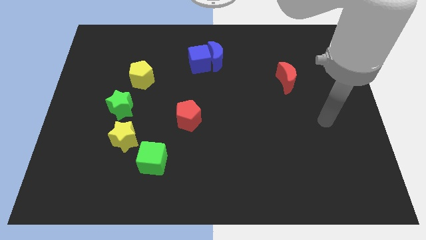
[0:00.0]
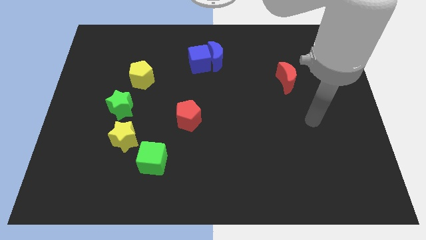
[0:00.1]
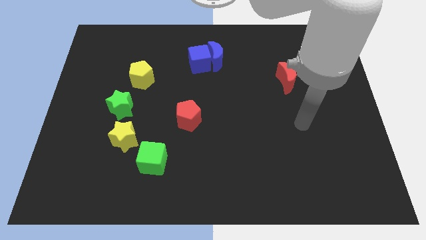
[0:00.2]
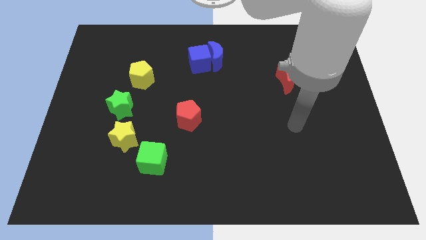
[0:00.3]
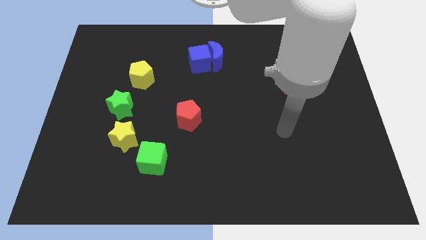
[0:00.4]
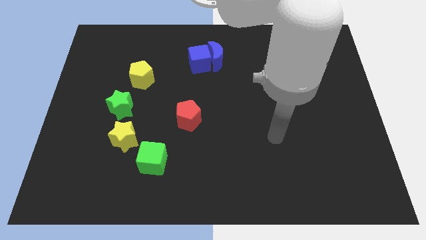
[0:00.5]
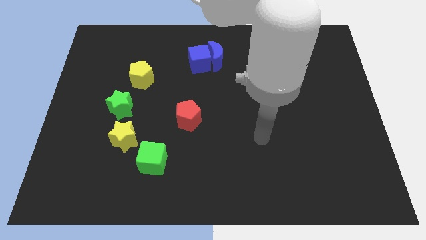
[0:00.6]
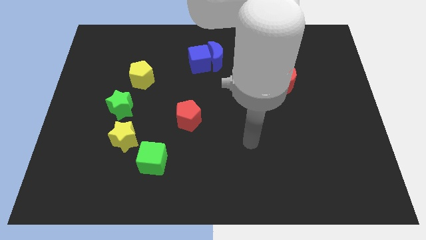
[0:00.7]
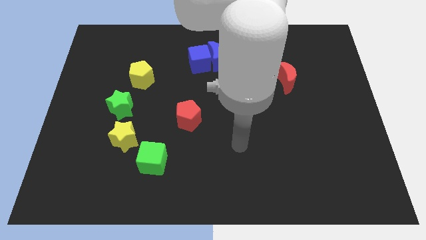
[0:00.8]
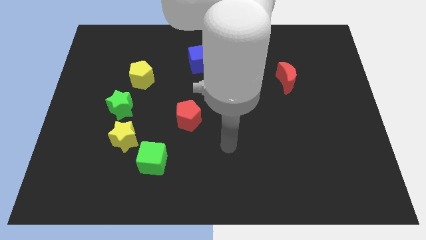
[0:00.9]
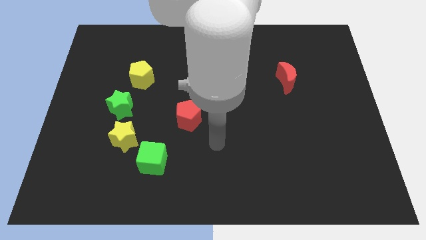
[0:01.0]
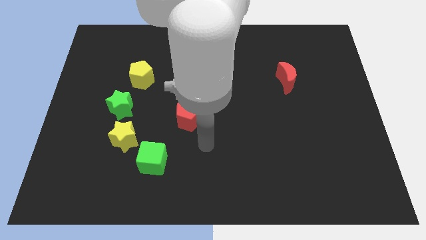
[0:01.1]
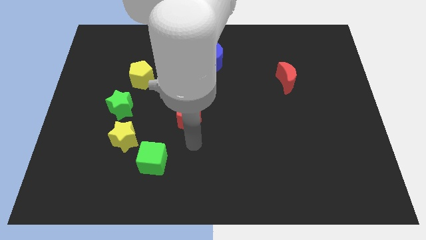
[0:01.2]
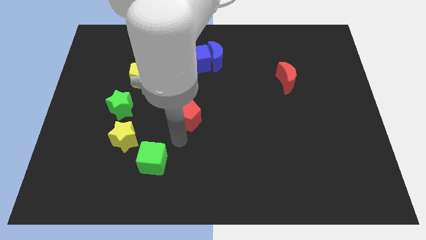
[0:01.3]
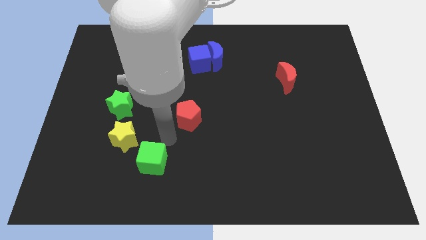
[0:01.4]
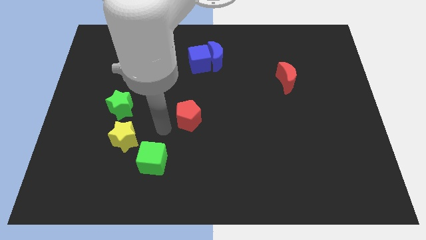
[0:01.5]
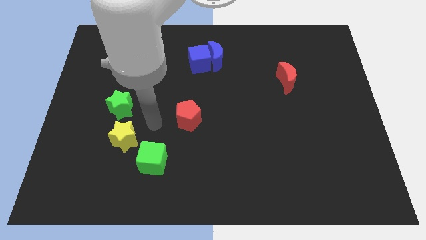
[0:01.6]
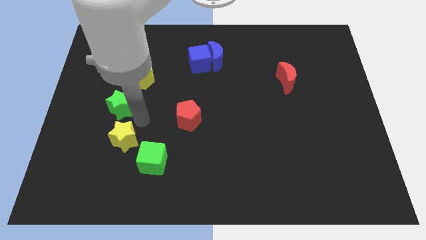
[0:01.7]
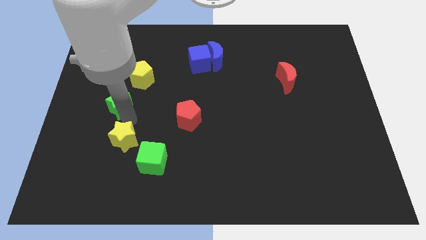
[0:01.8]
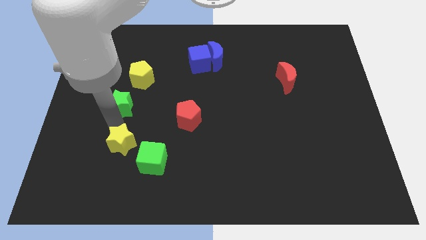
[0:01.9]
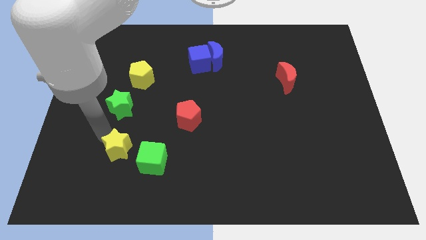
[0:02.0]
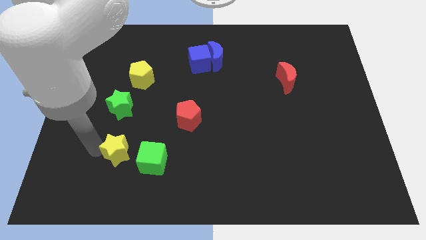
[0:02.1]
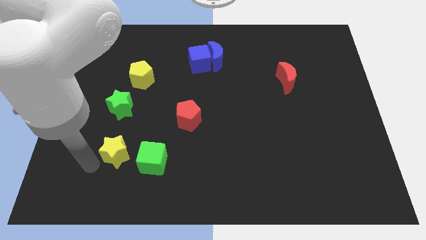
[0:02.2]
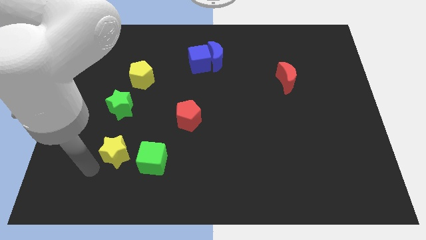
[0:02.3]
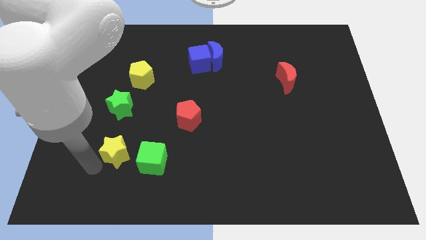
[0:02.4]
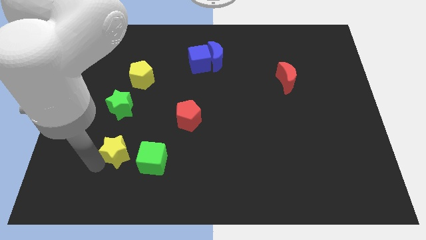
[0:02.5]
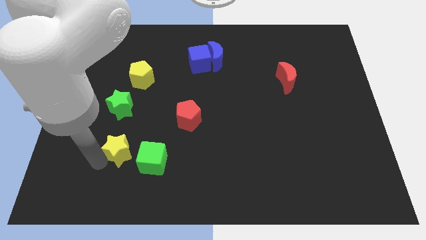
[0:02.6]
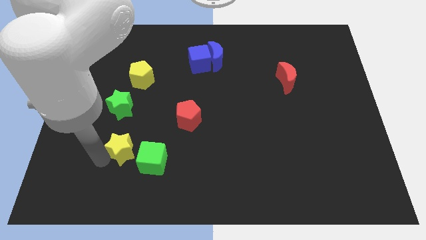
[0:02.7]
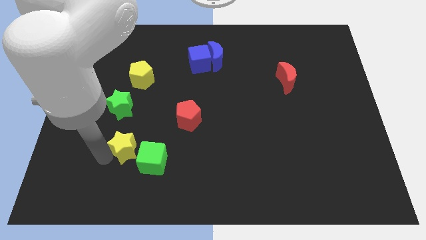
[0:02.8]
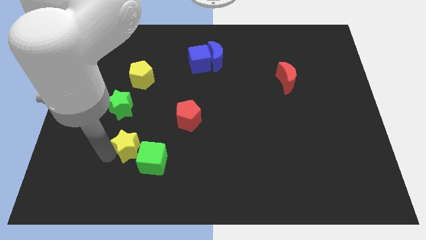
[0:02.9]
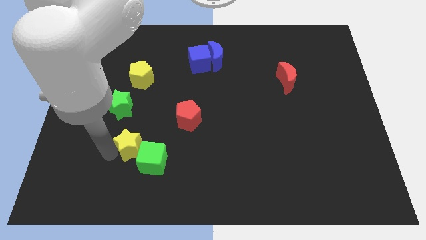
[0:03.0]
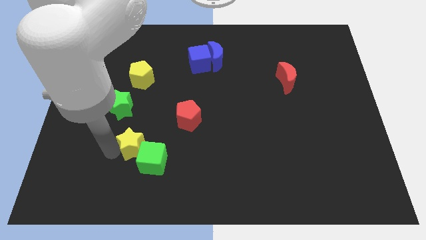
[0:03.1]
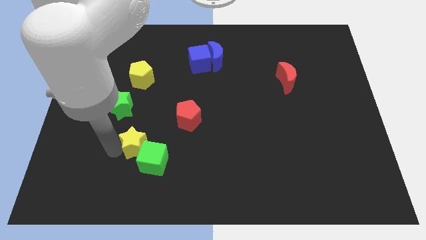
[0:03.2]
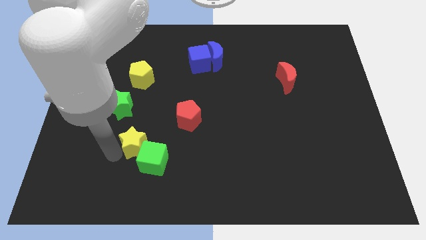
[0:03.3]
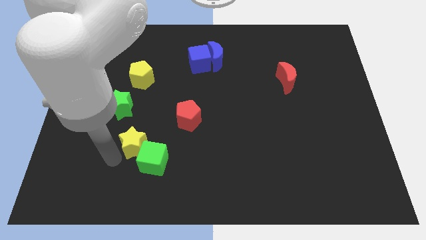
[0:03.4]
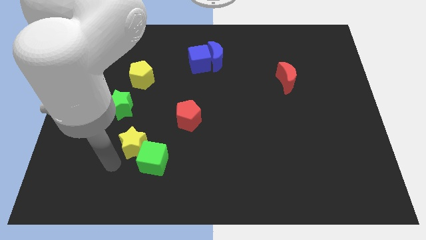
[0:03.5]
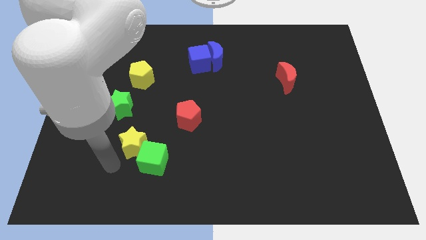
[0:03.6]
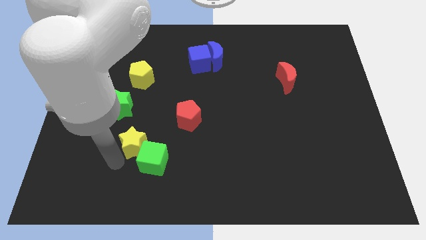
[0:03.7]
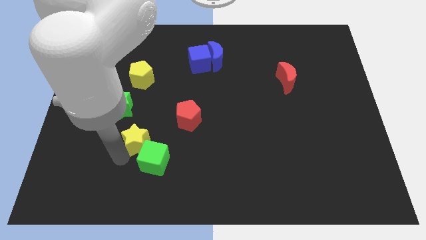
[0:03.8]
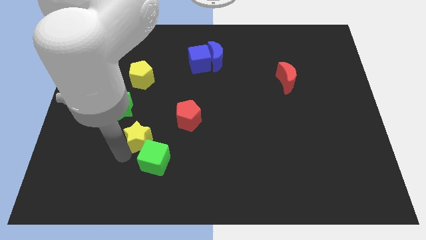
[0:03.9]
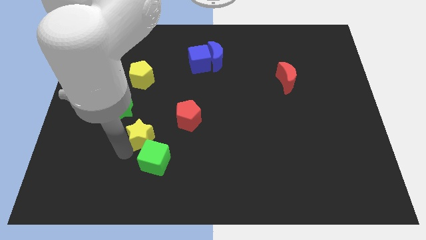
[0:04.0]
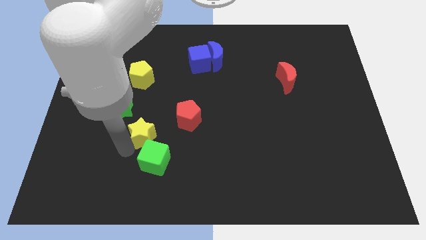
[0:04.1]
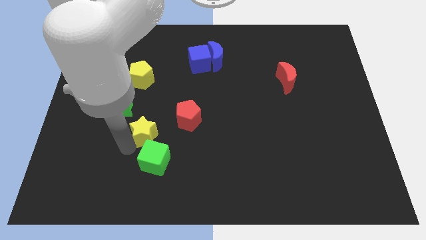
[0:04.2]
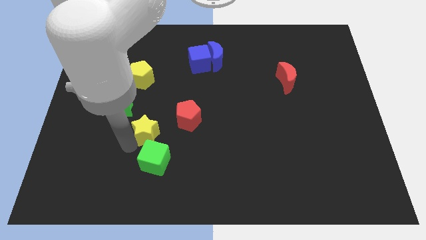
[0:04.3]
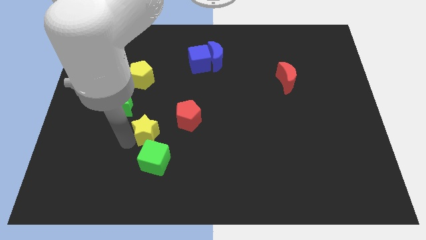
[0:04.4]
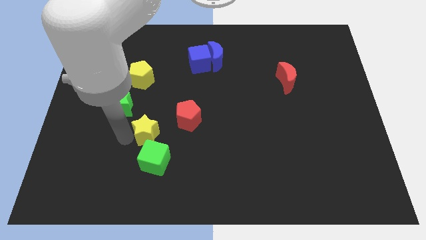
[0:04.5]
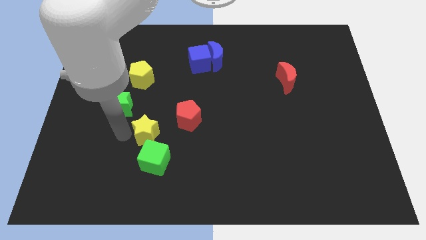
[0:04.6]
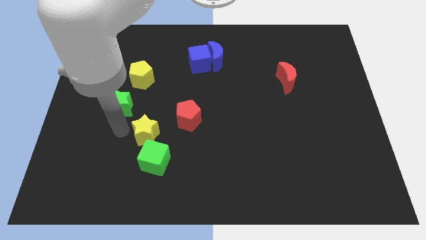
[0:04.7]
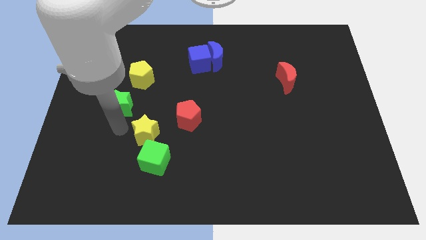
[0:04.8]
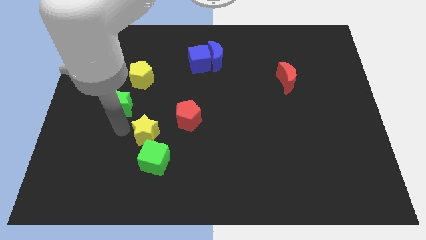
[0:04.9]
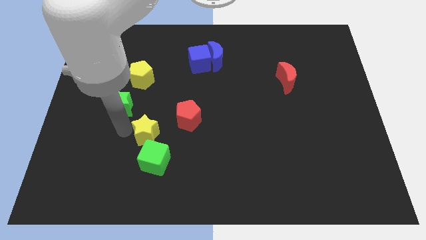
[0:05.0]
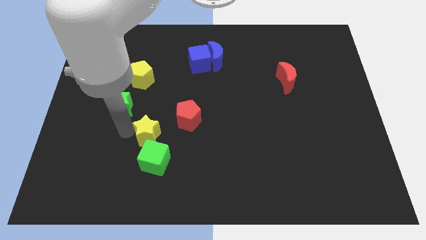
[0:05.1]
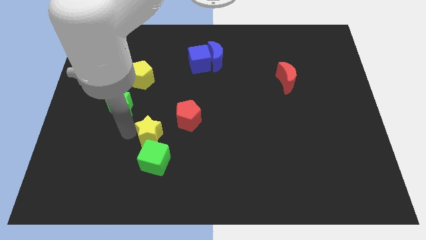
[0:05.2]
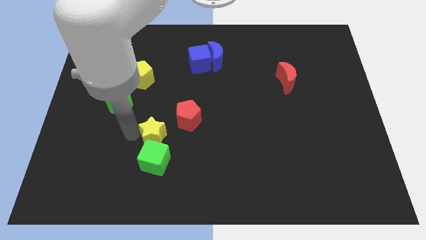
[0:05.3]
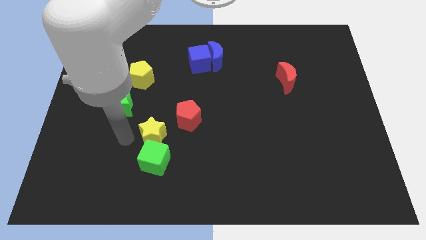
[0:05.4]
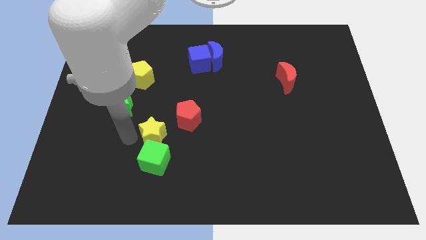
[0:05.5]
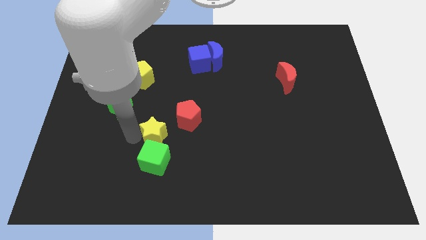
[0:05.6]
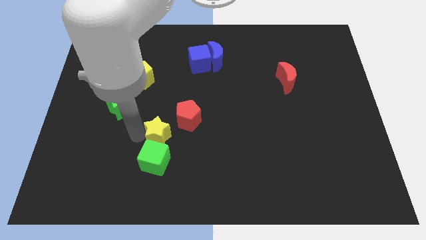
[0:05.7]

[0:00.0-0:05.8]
slightly push the yellow star to the right

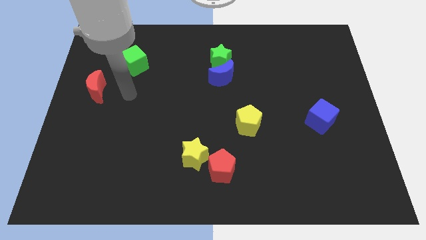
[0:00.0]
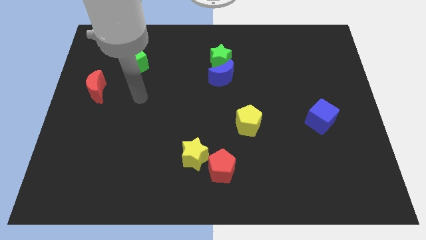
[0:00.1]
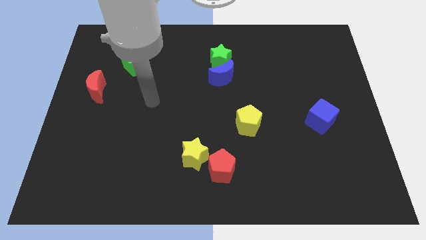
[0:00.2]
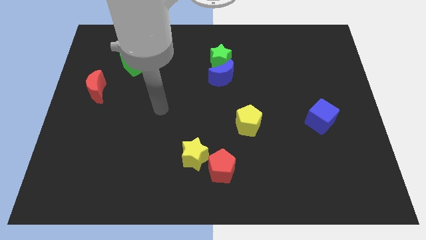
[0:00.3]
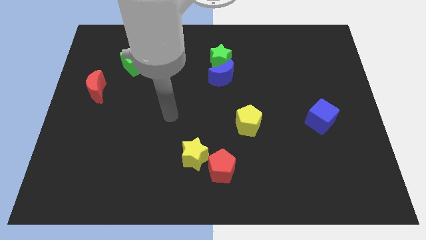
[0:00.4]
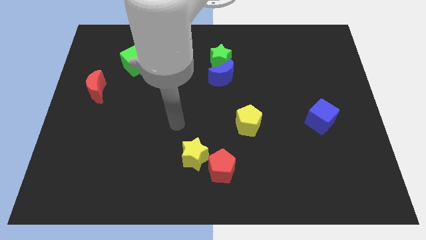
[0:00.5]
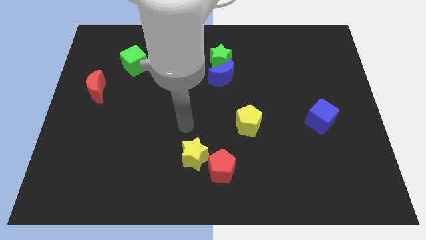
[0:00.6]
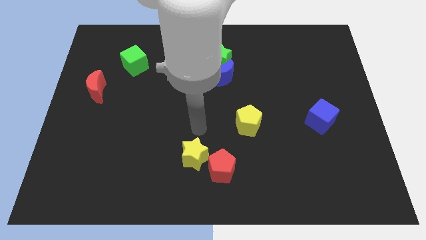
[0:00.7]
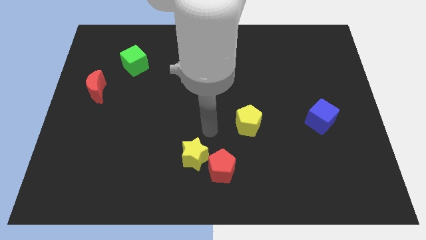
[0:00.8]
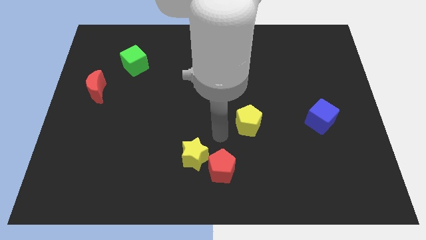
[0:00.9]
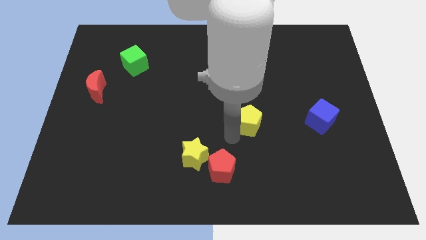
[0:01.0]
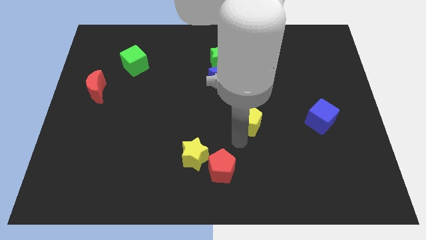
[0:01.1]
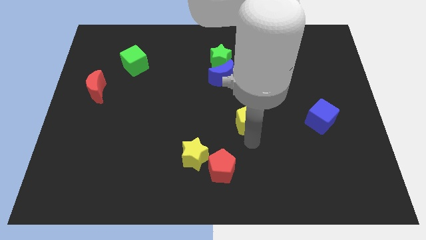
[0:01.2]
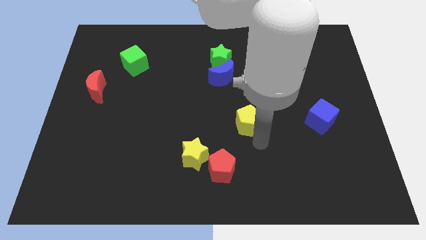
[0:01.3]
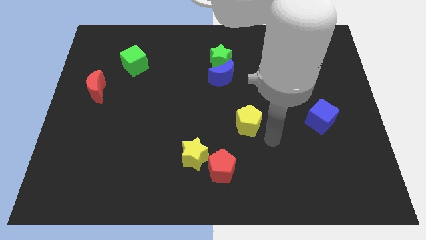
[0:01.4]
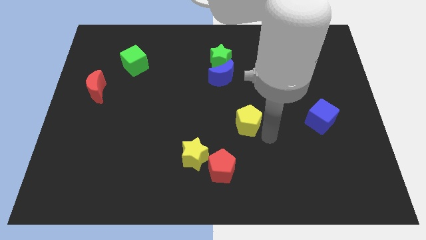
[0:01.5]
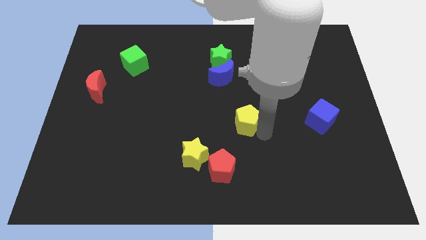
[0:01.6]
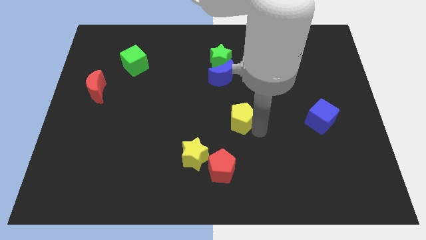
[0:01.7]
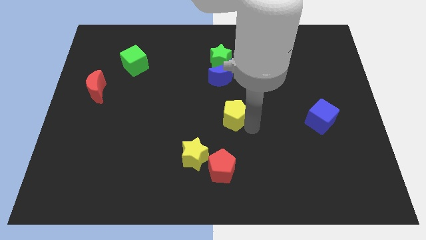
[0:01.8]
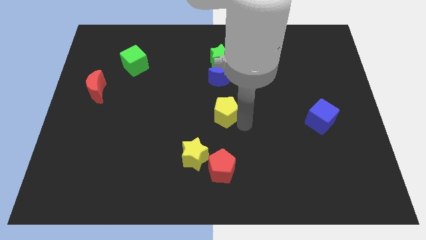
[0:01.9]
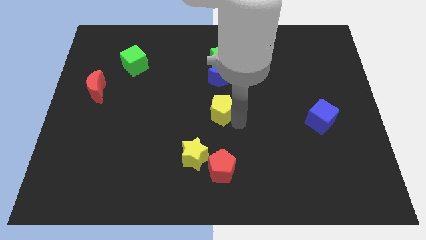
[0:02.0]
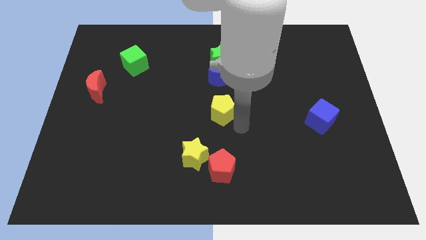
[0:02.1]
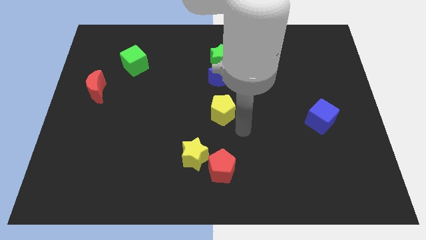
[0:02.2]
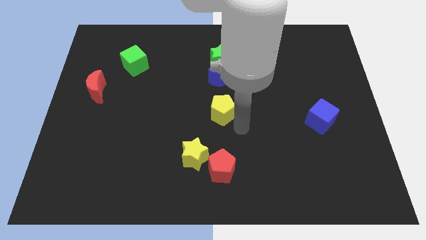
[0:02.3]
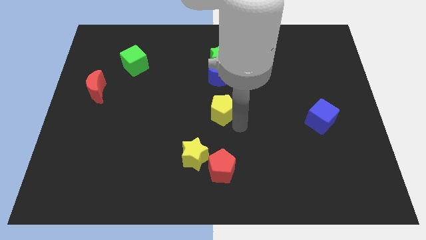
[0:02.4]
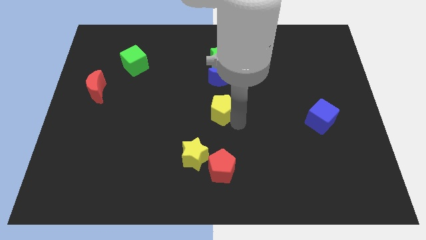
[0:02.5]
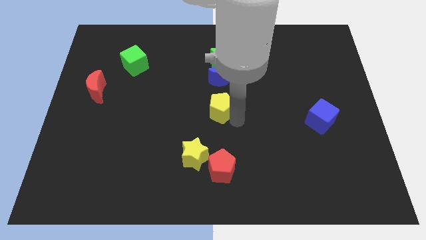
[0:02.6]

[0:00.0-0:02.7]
push the yellow pentagon a bit upwards and to the left diagonally
